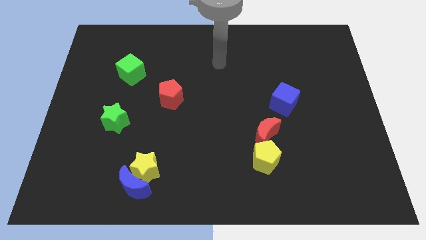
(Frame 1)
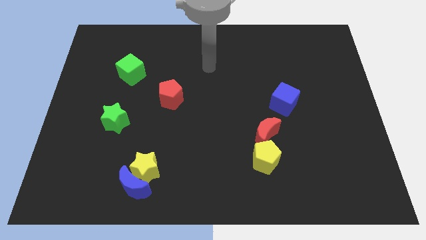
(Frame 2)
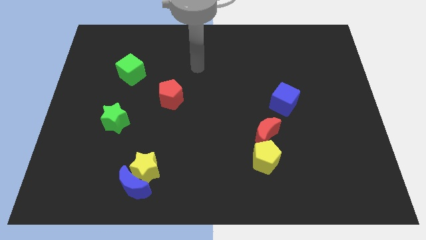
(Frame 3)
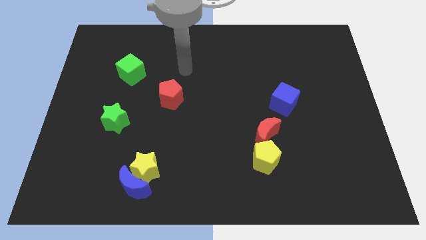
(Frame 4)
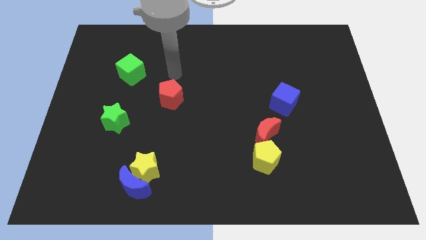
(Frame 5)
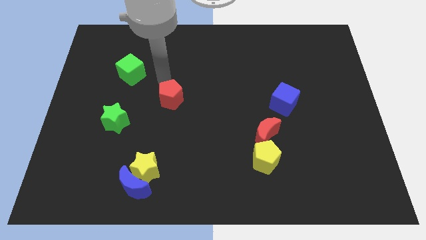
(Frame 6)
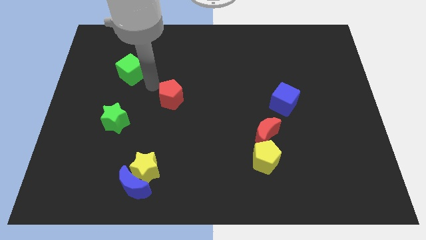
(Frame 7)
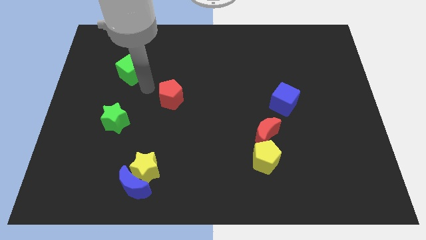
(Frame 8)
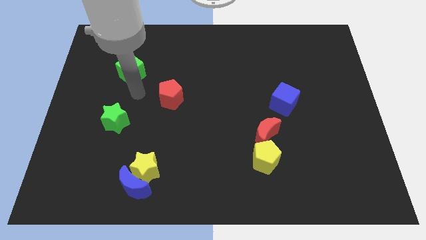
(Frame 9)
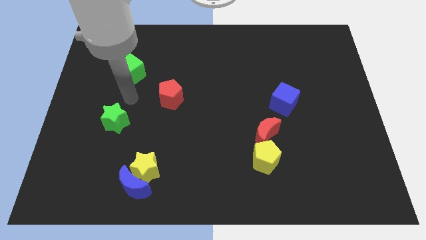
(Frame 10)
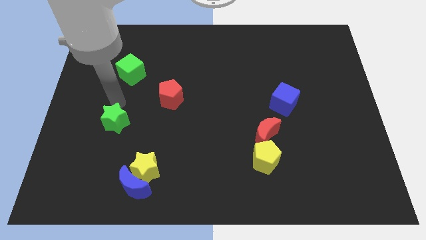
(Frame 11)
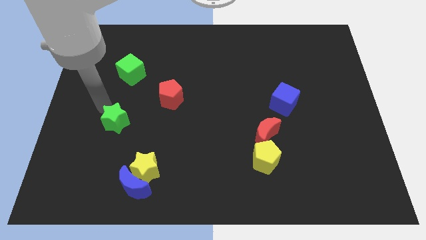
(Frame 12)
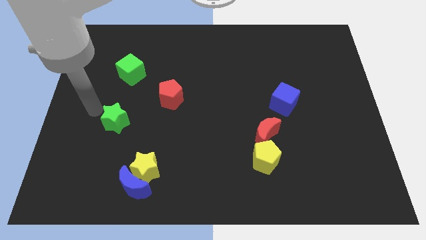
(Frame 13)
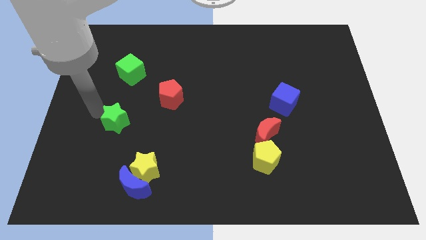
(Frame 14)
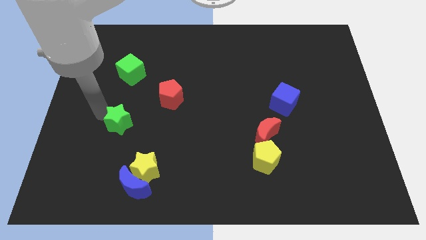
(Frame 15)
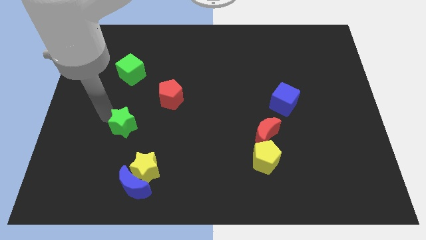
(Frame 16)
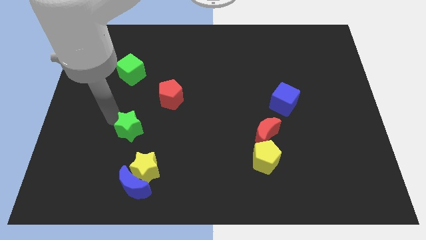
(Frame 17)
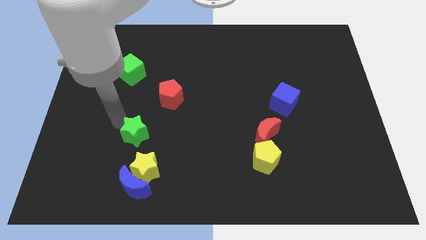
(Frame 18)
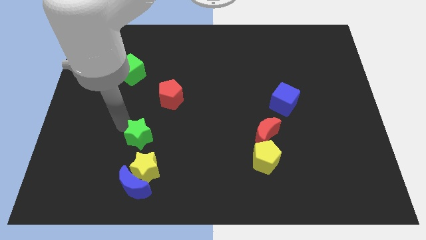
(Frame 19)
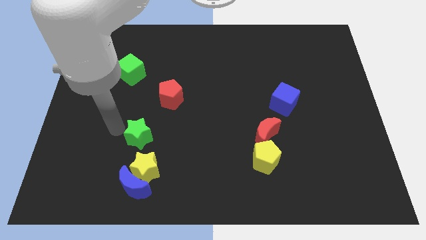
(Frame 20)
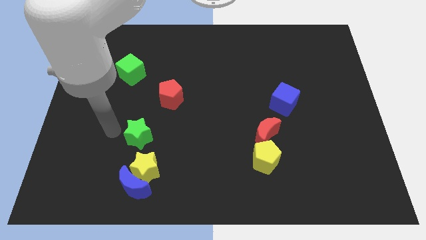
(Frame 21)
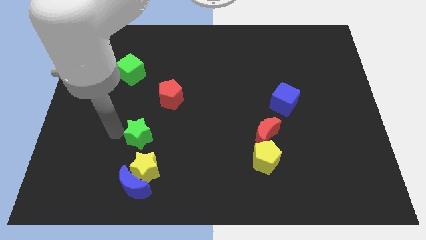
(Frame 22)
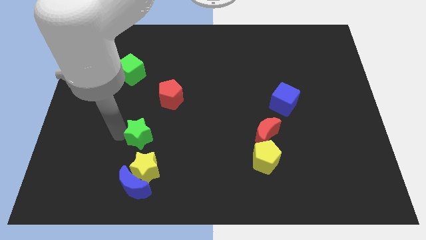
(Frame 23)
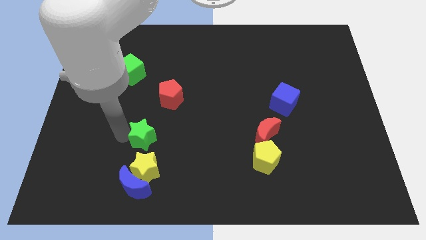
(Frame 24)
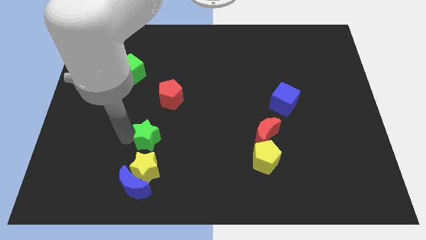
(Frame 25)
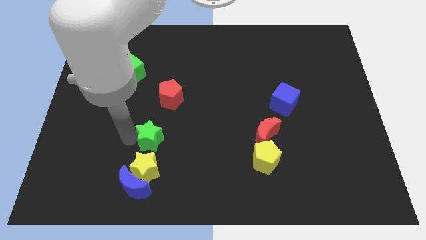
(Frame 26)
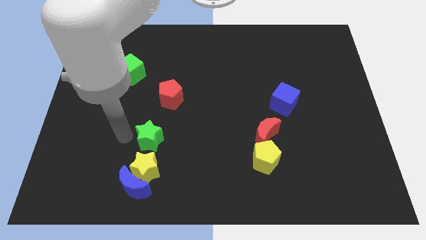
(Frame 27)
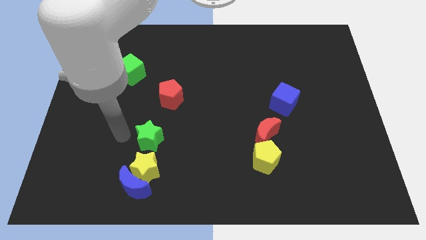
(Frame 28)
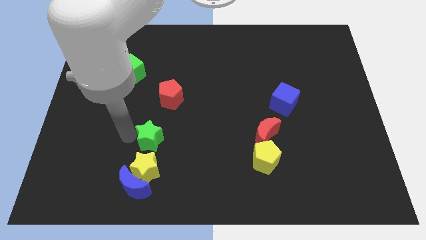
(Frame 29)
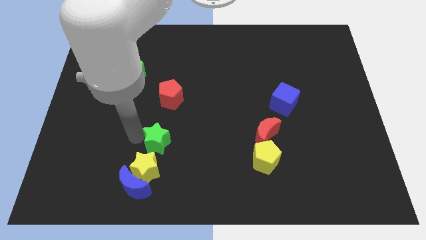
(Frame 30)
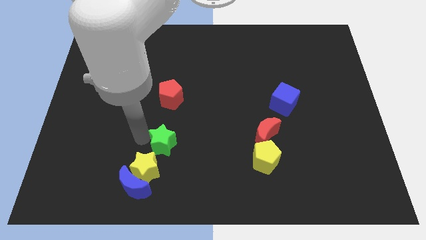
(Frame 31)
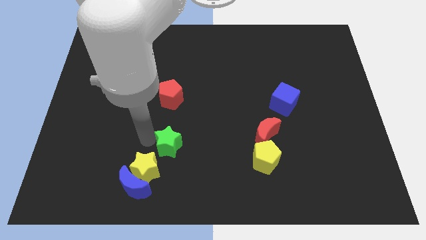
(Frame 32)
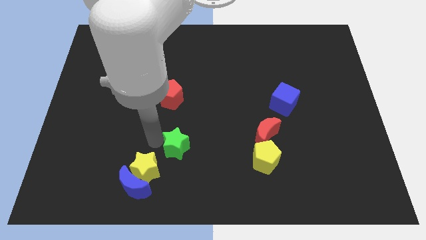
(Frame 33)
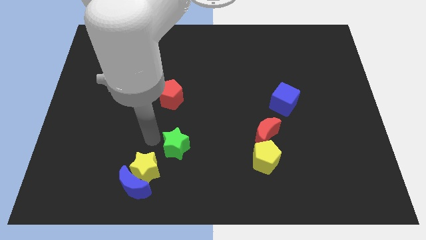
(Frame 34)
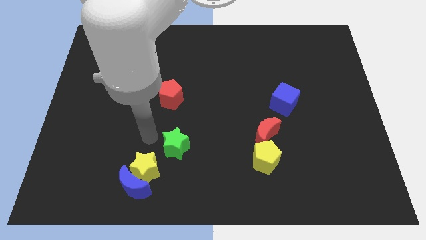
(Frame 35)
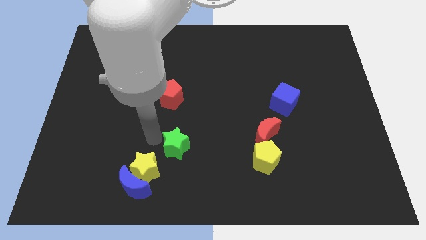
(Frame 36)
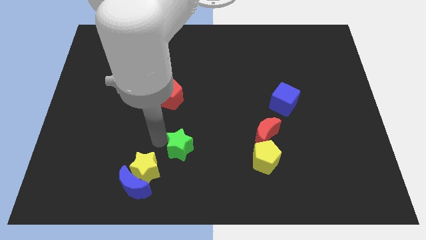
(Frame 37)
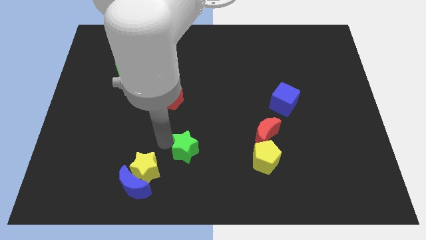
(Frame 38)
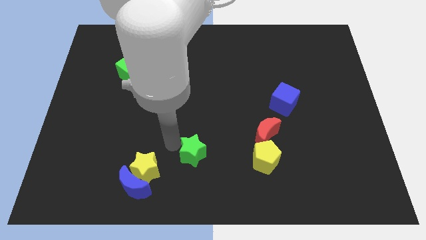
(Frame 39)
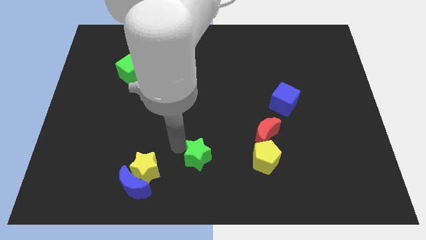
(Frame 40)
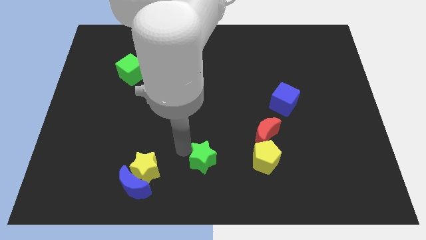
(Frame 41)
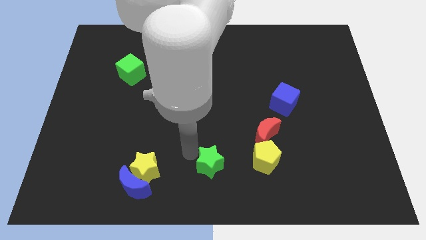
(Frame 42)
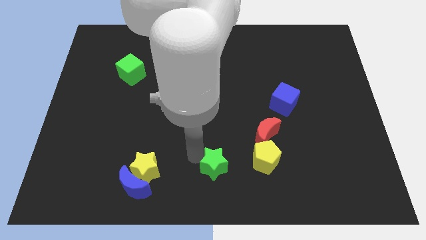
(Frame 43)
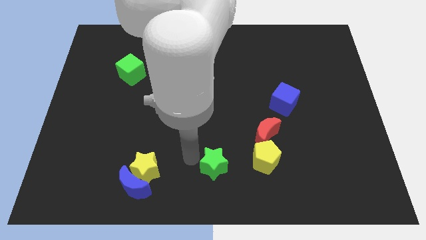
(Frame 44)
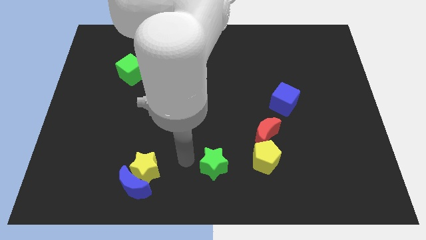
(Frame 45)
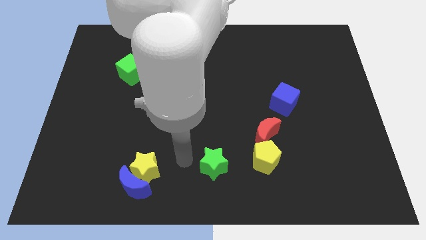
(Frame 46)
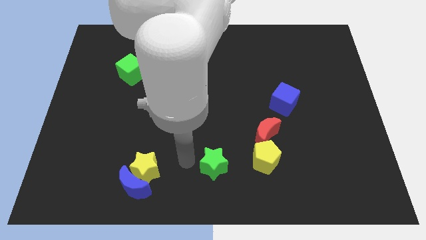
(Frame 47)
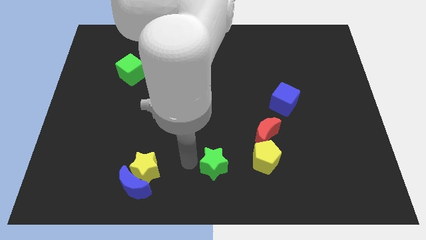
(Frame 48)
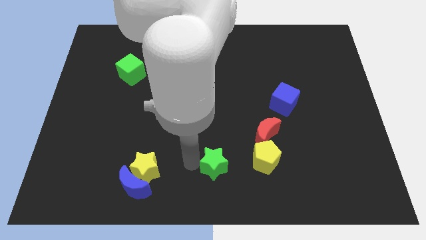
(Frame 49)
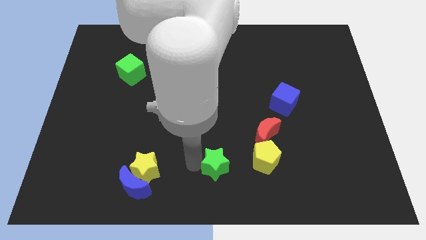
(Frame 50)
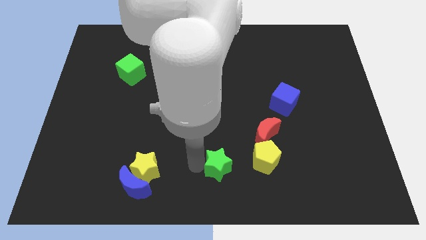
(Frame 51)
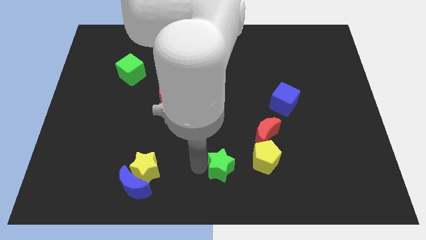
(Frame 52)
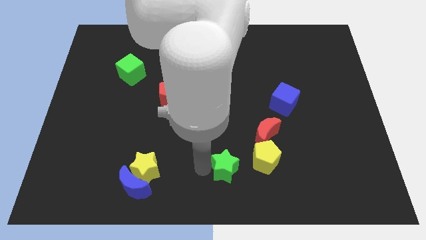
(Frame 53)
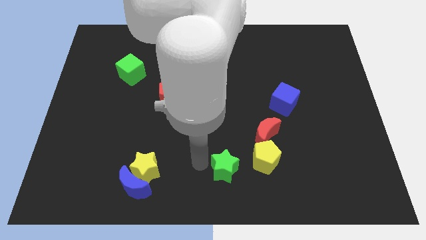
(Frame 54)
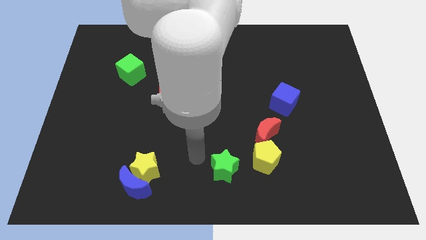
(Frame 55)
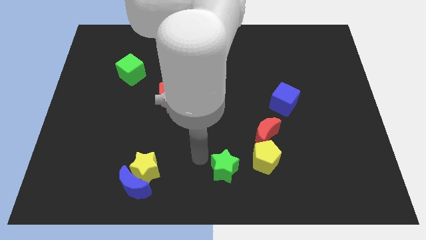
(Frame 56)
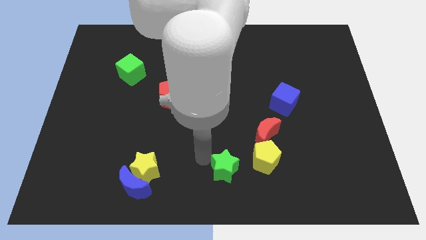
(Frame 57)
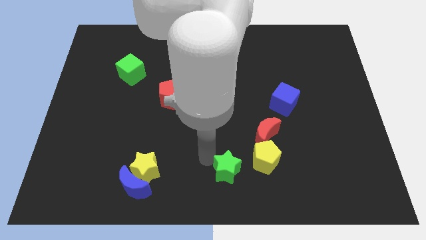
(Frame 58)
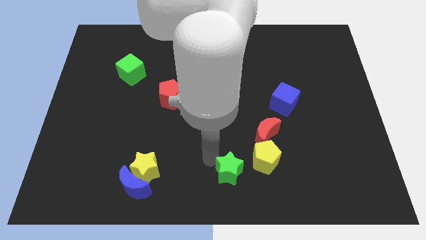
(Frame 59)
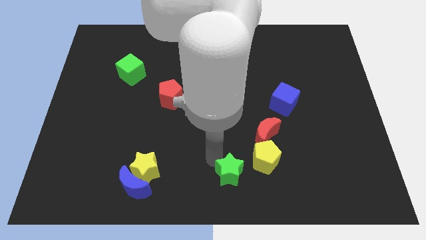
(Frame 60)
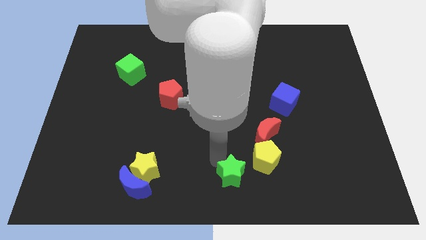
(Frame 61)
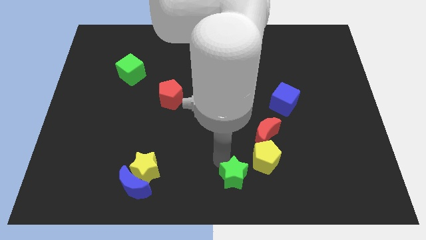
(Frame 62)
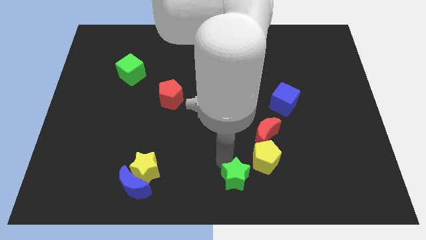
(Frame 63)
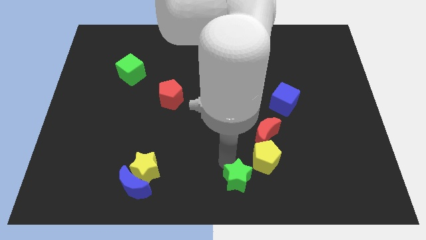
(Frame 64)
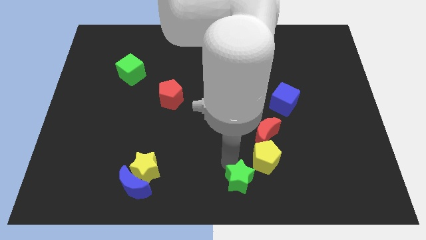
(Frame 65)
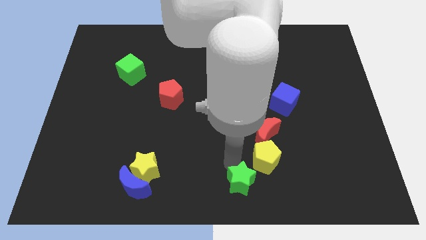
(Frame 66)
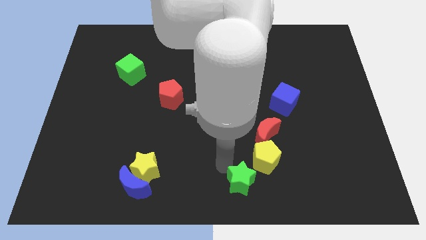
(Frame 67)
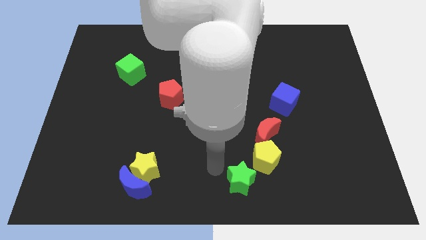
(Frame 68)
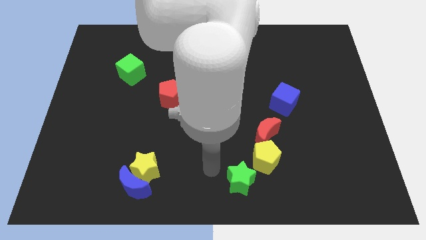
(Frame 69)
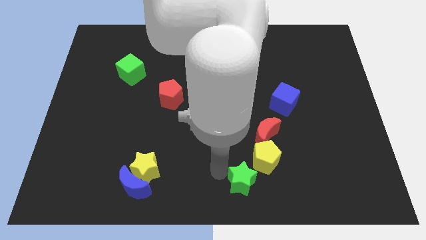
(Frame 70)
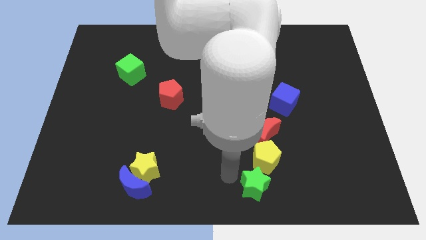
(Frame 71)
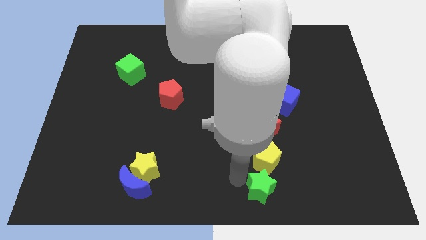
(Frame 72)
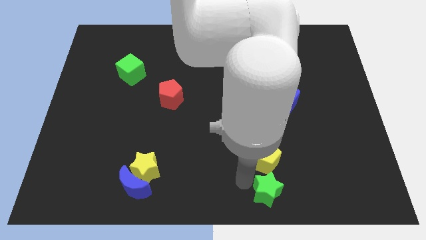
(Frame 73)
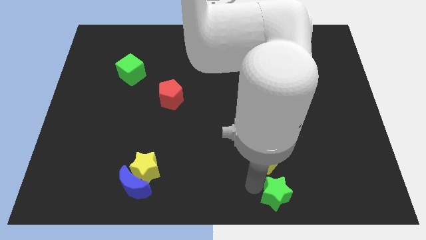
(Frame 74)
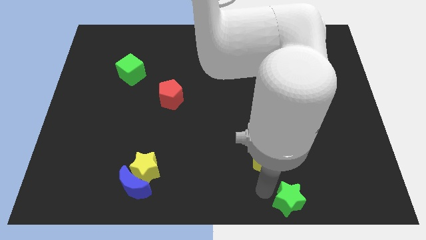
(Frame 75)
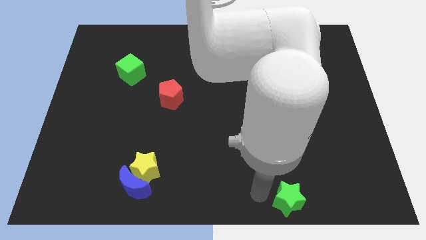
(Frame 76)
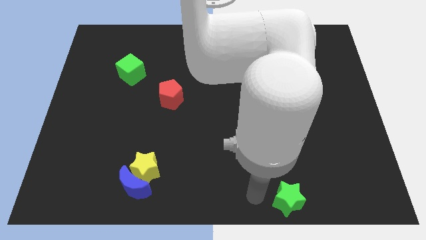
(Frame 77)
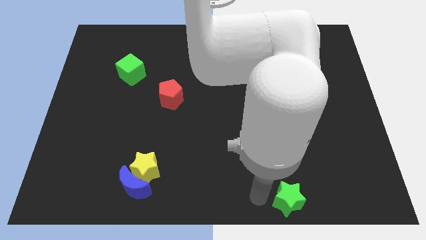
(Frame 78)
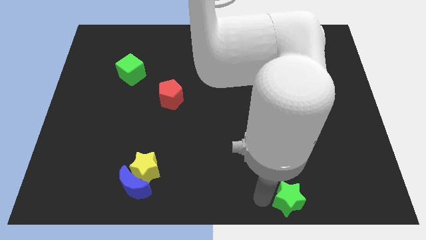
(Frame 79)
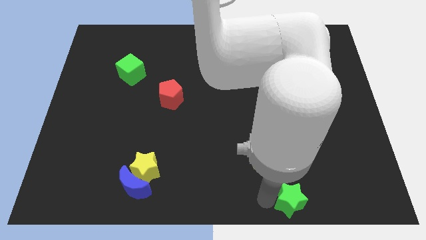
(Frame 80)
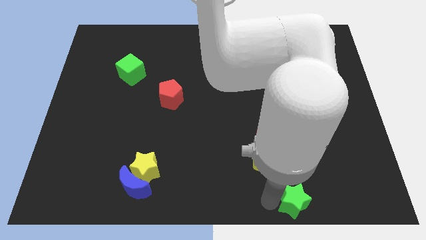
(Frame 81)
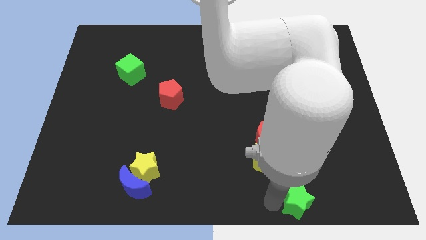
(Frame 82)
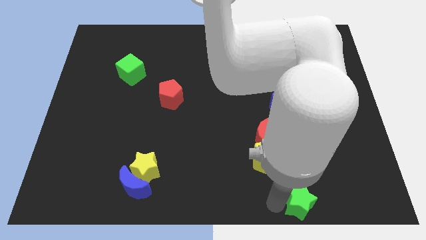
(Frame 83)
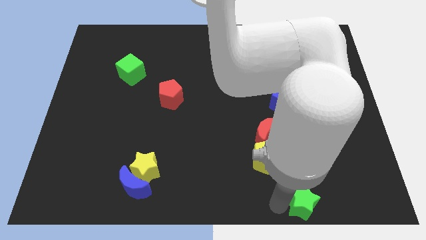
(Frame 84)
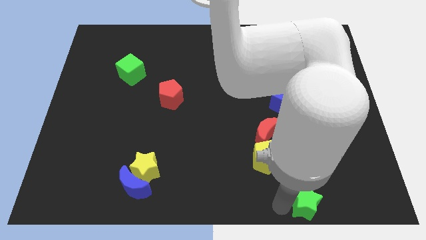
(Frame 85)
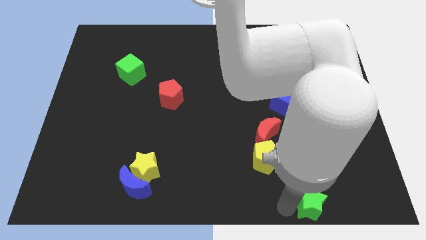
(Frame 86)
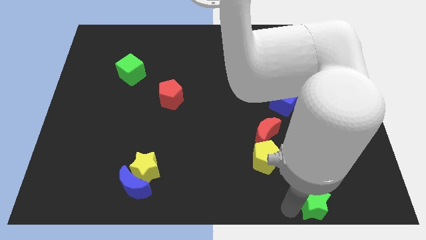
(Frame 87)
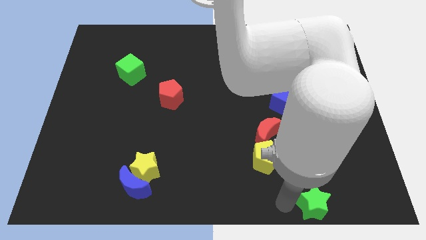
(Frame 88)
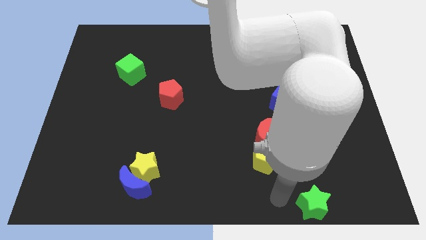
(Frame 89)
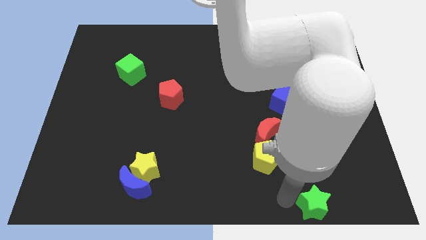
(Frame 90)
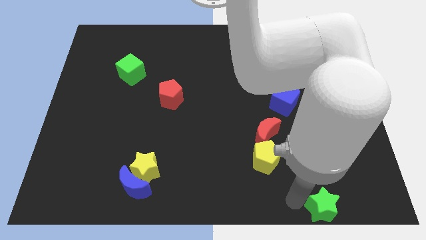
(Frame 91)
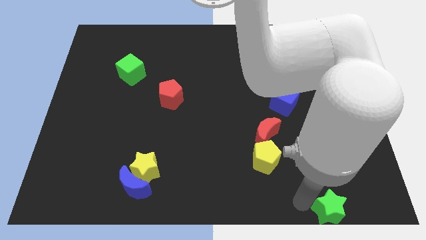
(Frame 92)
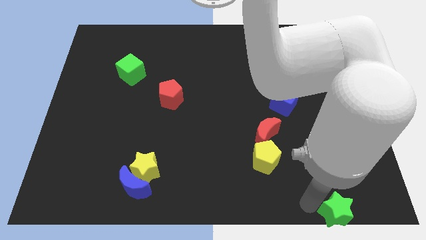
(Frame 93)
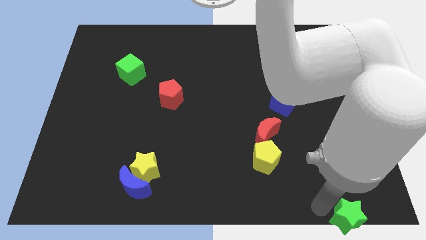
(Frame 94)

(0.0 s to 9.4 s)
push the green star to the lower right corner
